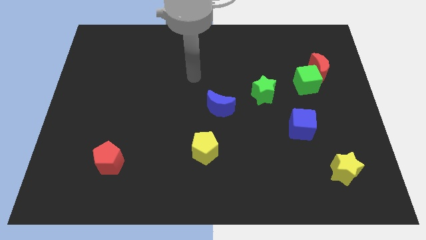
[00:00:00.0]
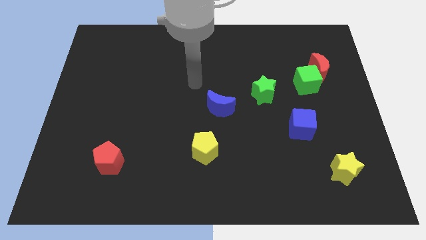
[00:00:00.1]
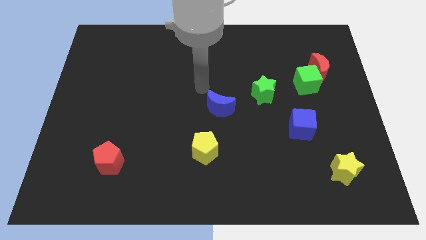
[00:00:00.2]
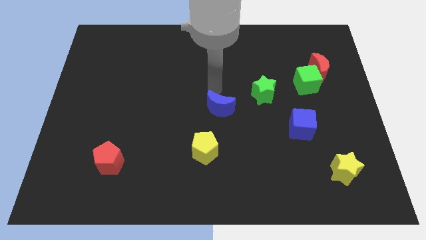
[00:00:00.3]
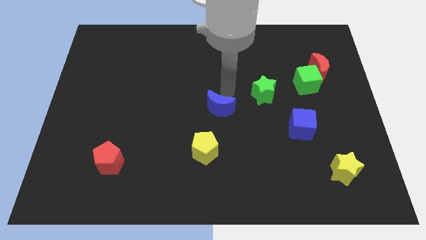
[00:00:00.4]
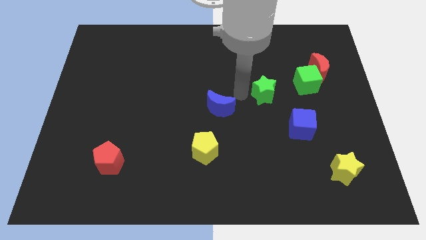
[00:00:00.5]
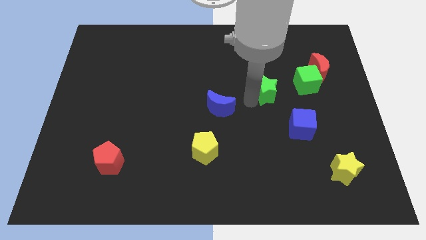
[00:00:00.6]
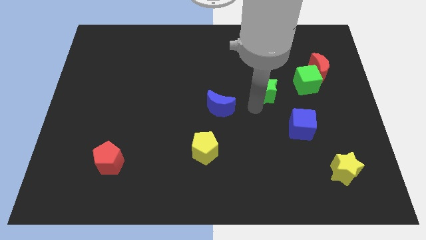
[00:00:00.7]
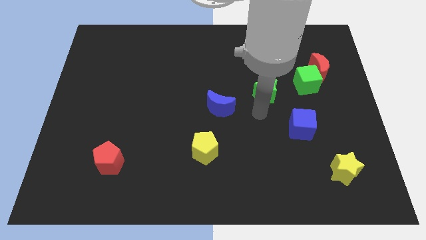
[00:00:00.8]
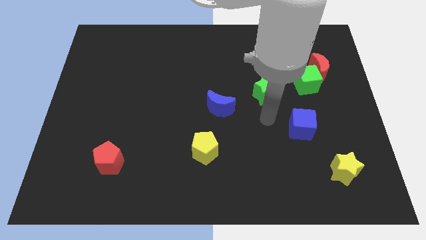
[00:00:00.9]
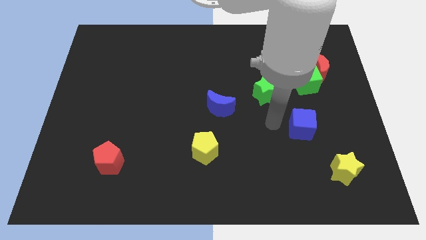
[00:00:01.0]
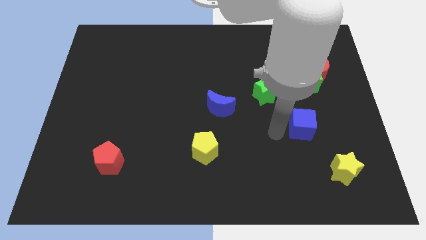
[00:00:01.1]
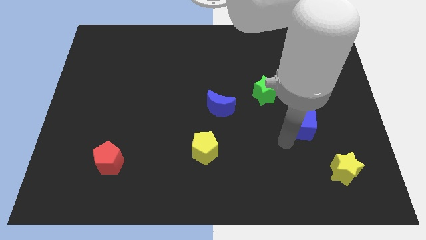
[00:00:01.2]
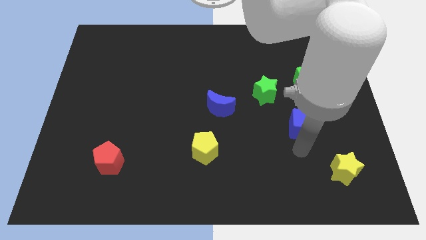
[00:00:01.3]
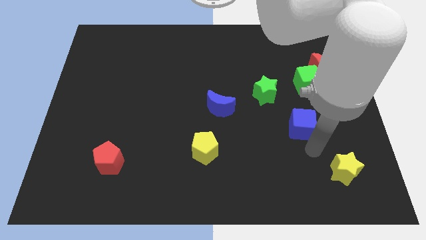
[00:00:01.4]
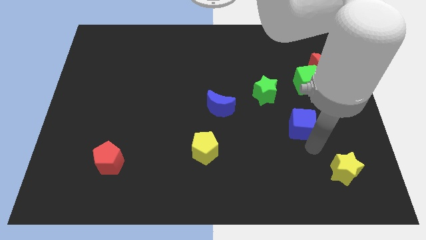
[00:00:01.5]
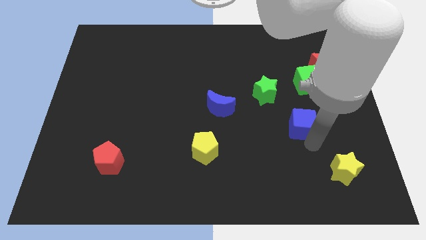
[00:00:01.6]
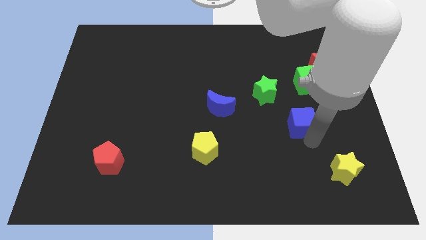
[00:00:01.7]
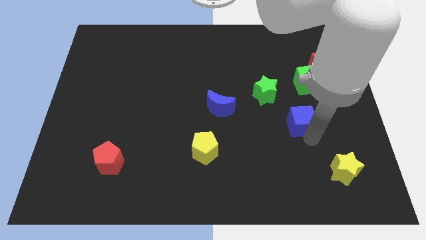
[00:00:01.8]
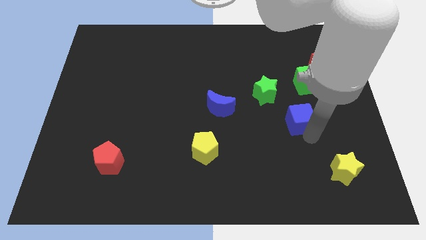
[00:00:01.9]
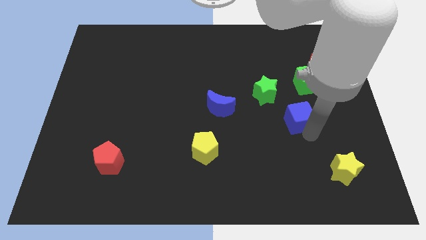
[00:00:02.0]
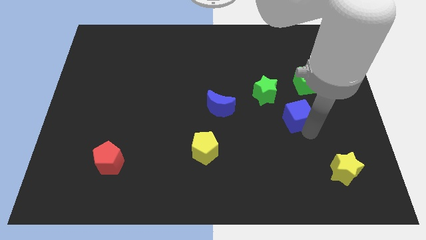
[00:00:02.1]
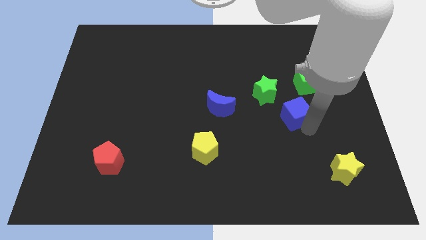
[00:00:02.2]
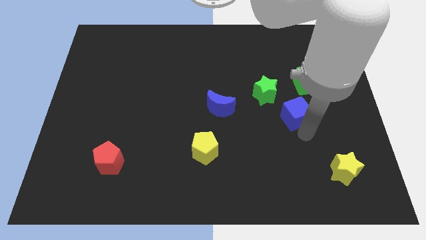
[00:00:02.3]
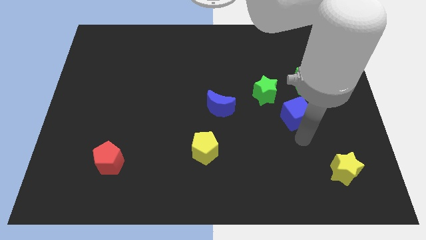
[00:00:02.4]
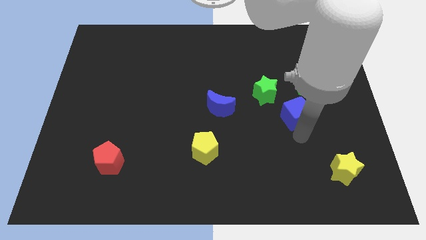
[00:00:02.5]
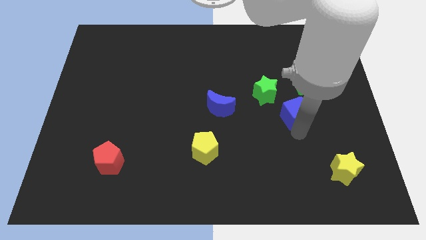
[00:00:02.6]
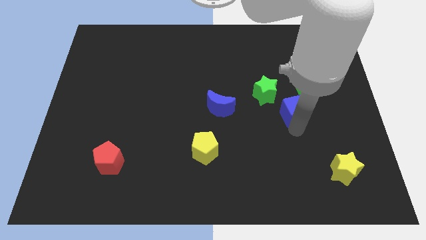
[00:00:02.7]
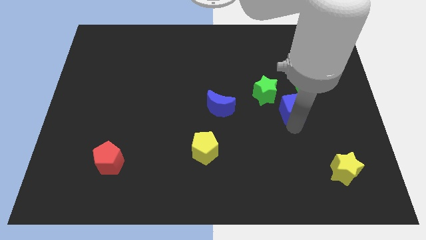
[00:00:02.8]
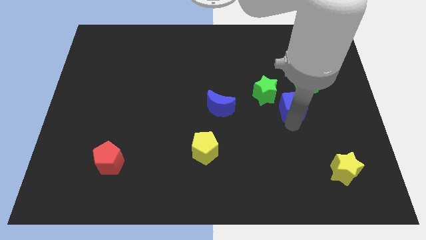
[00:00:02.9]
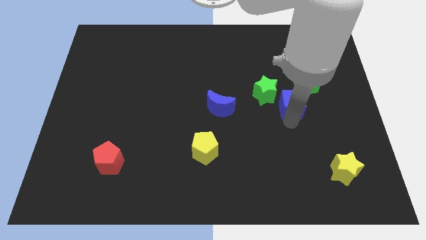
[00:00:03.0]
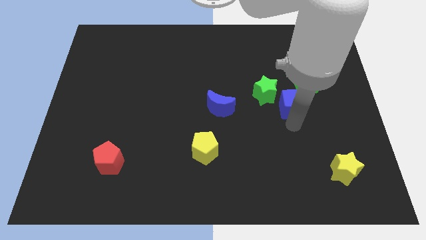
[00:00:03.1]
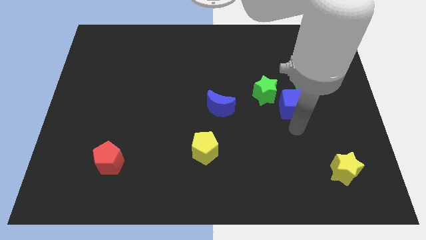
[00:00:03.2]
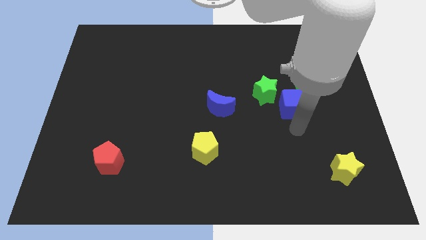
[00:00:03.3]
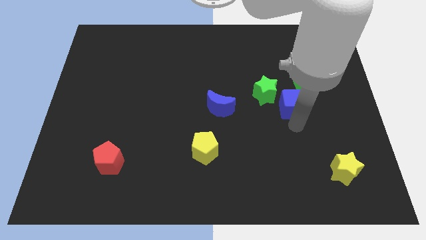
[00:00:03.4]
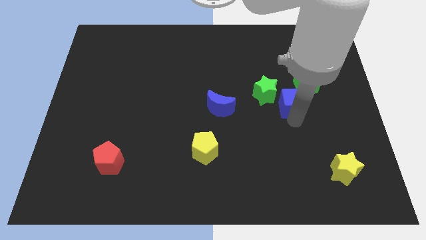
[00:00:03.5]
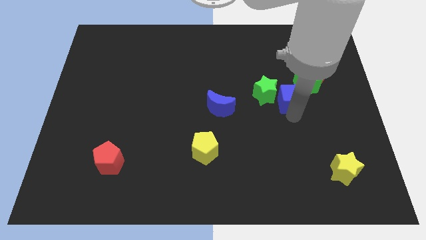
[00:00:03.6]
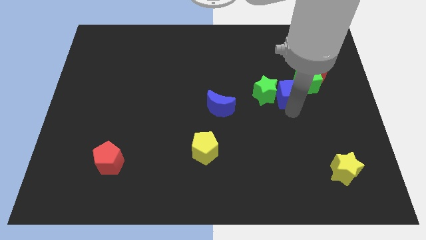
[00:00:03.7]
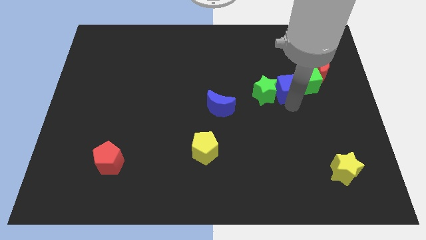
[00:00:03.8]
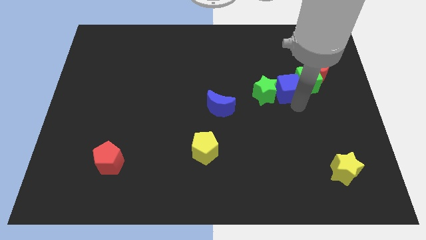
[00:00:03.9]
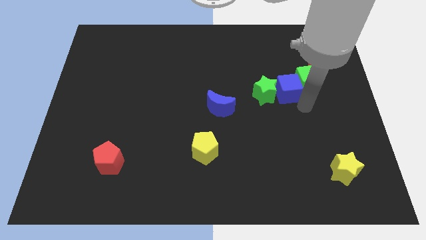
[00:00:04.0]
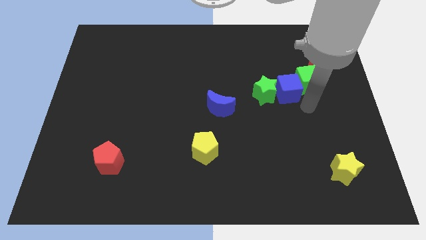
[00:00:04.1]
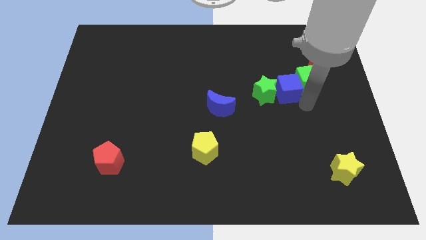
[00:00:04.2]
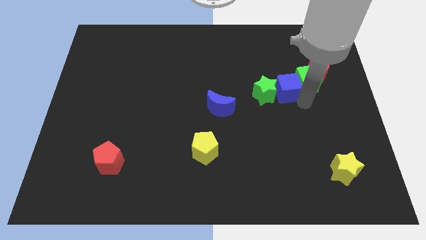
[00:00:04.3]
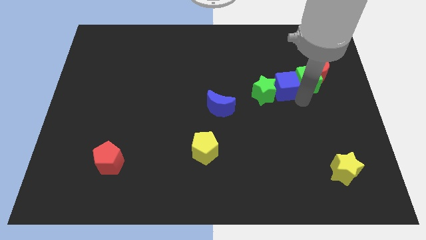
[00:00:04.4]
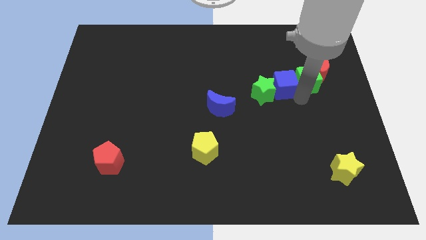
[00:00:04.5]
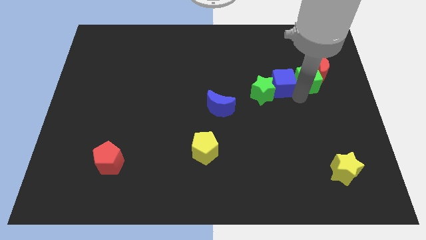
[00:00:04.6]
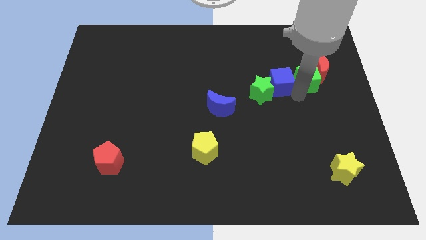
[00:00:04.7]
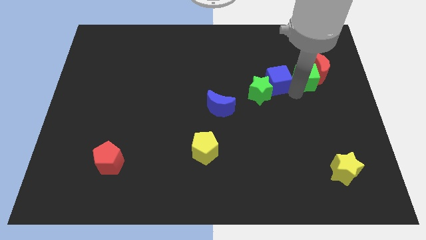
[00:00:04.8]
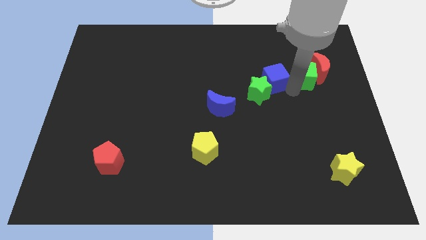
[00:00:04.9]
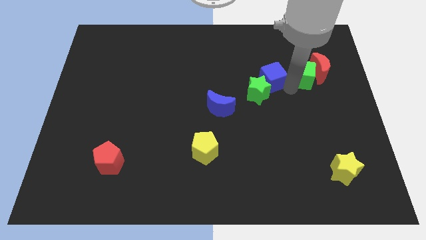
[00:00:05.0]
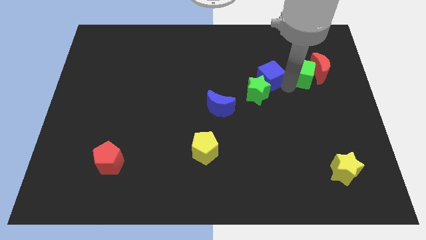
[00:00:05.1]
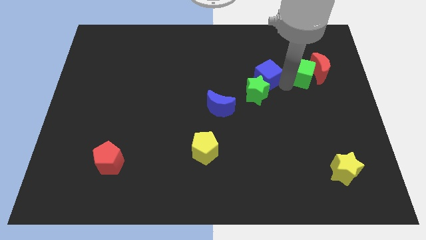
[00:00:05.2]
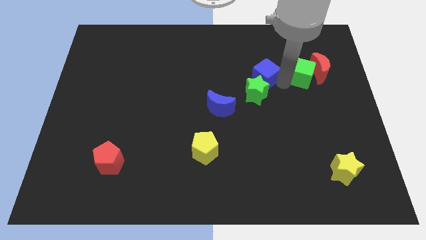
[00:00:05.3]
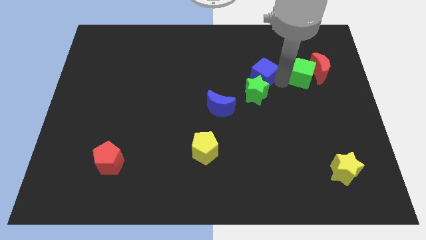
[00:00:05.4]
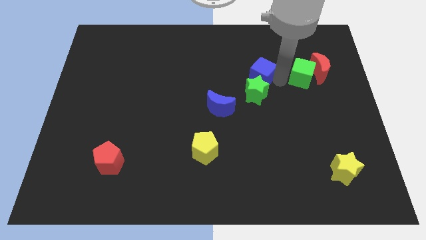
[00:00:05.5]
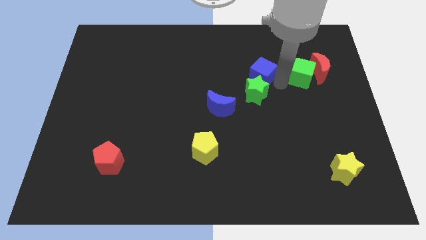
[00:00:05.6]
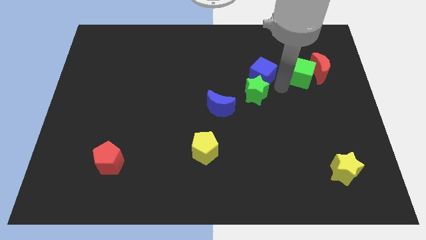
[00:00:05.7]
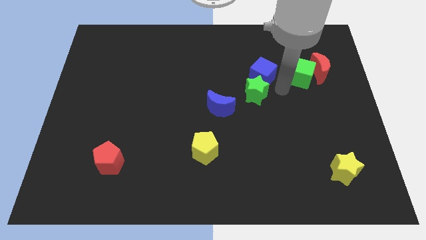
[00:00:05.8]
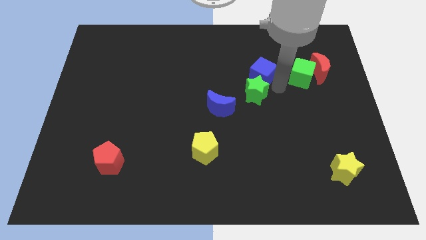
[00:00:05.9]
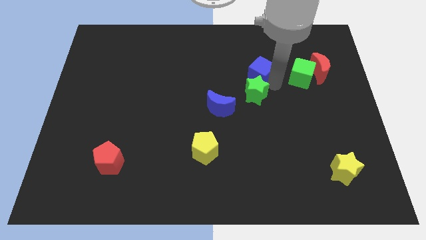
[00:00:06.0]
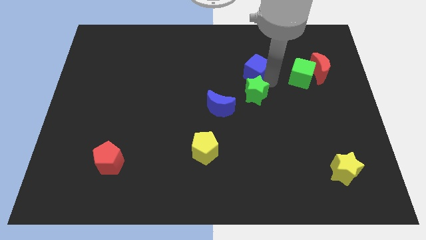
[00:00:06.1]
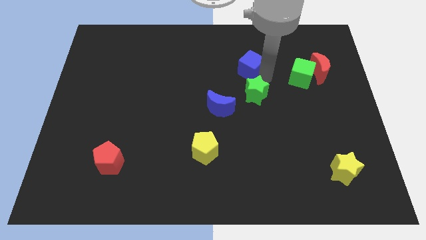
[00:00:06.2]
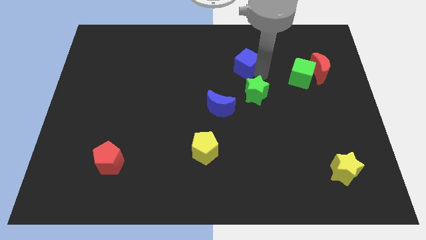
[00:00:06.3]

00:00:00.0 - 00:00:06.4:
push the blue cube upwards and then to the left

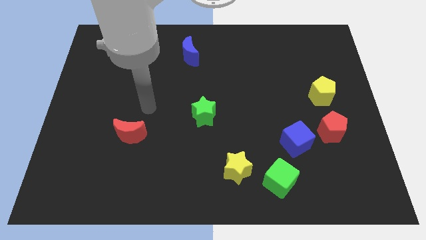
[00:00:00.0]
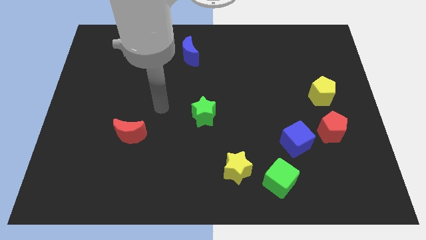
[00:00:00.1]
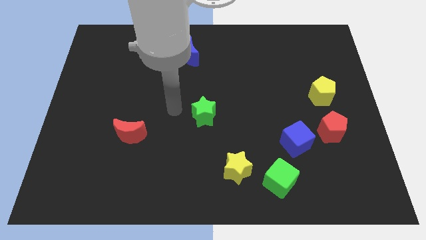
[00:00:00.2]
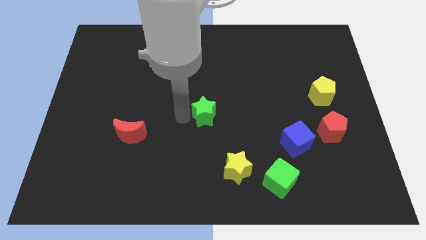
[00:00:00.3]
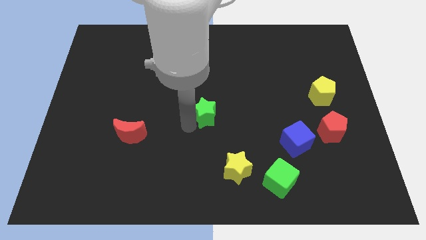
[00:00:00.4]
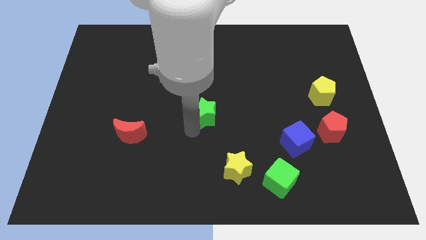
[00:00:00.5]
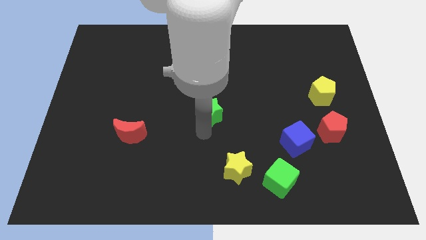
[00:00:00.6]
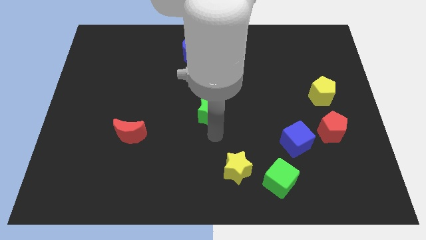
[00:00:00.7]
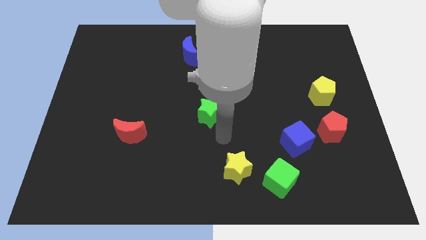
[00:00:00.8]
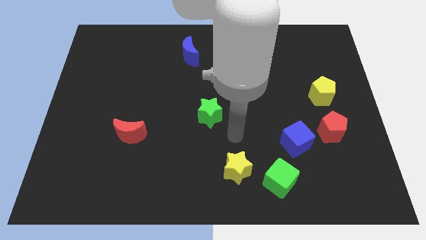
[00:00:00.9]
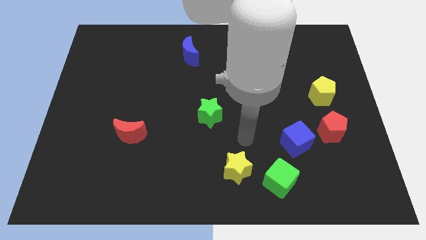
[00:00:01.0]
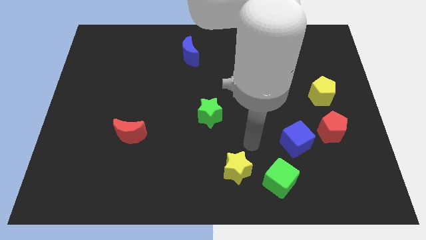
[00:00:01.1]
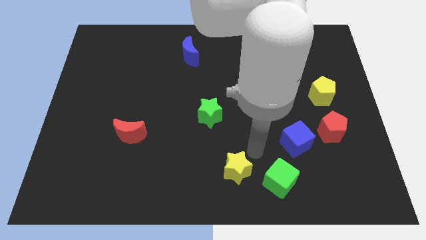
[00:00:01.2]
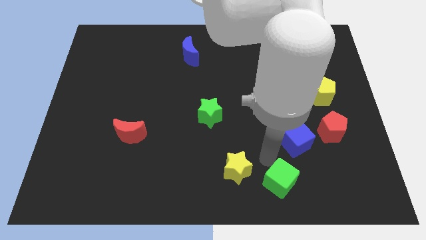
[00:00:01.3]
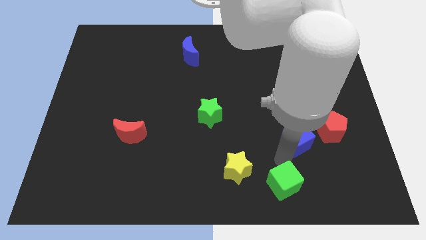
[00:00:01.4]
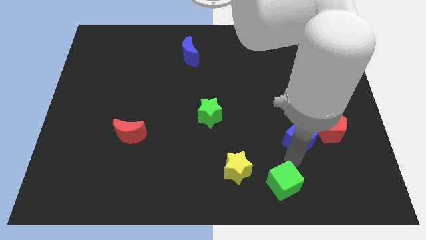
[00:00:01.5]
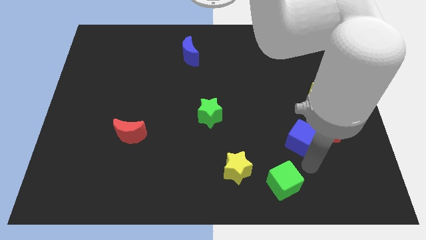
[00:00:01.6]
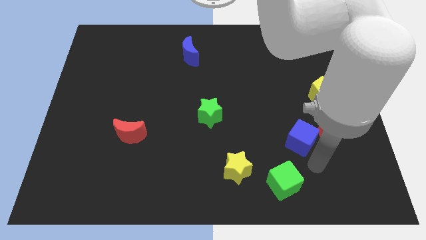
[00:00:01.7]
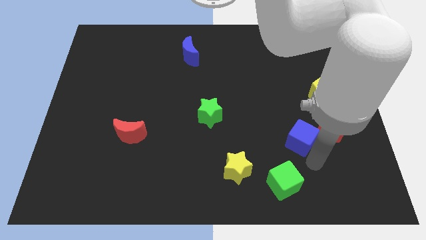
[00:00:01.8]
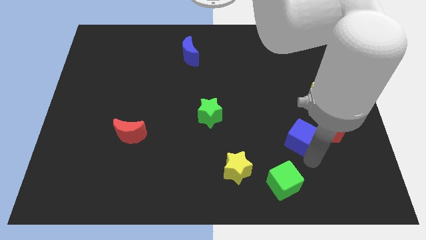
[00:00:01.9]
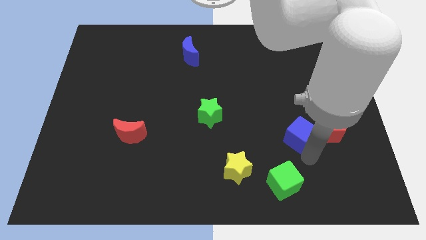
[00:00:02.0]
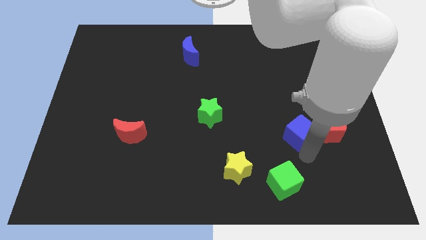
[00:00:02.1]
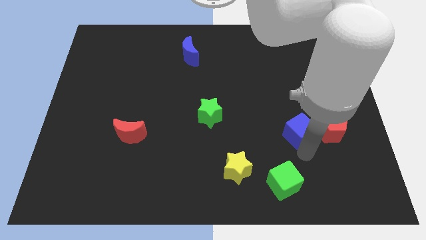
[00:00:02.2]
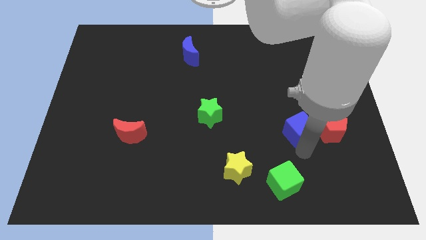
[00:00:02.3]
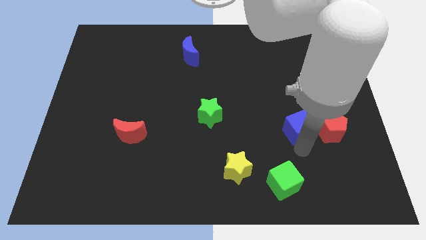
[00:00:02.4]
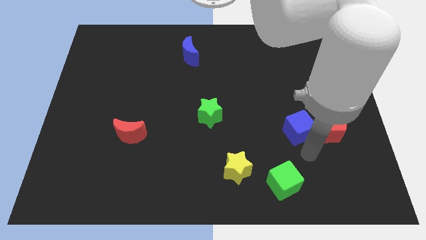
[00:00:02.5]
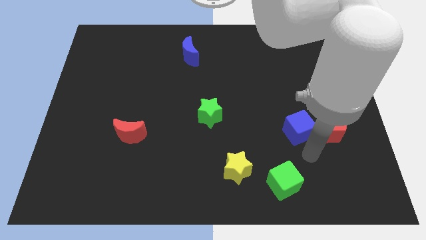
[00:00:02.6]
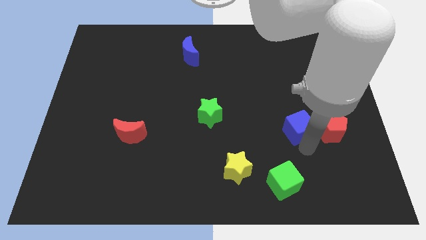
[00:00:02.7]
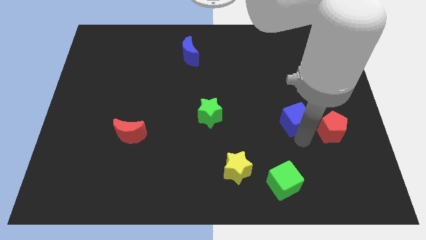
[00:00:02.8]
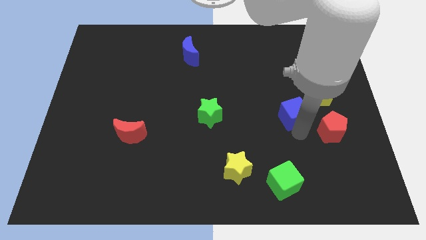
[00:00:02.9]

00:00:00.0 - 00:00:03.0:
move the blue cube slightly upwards
